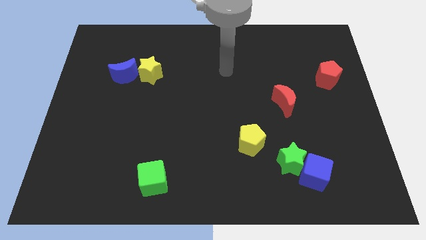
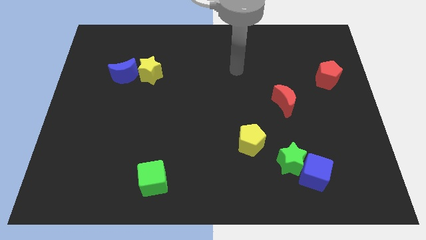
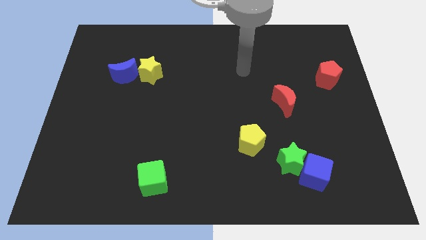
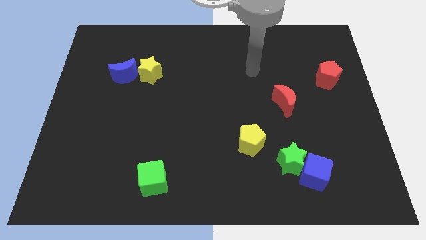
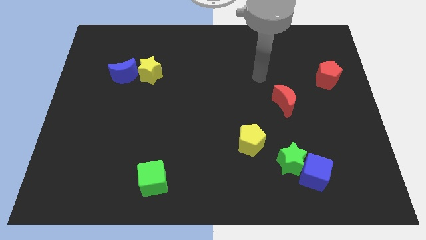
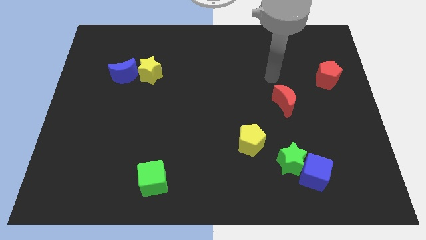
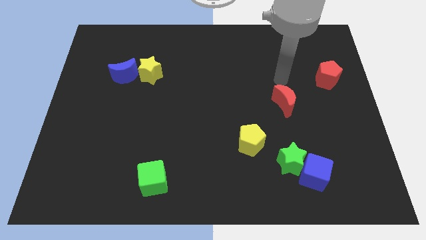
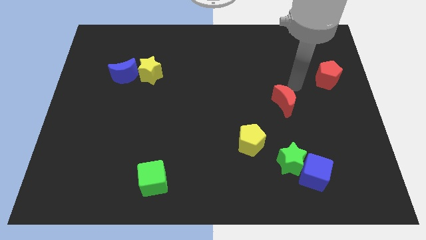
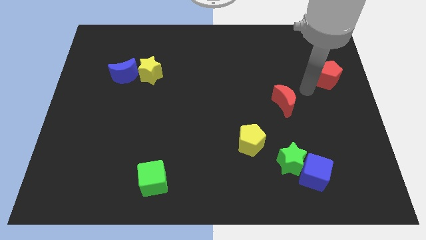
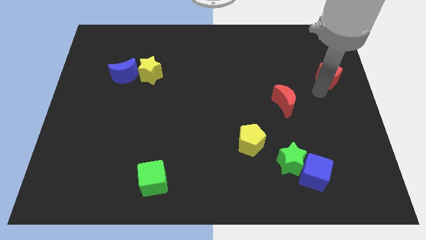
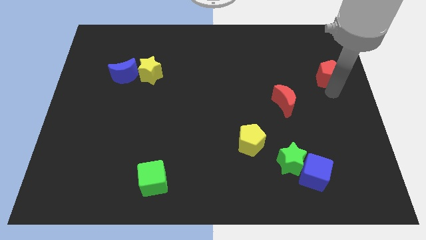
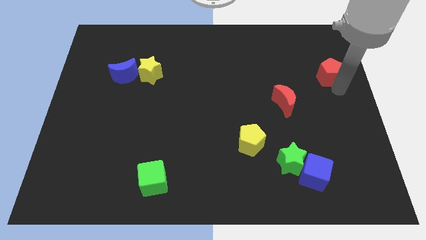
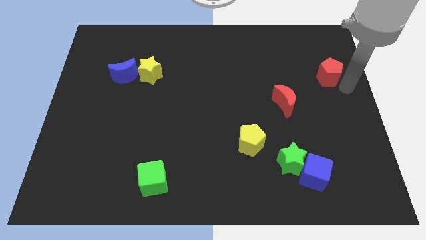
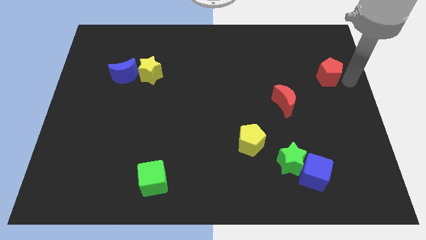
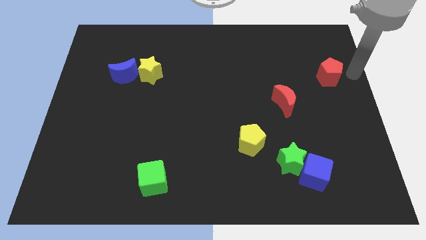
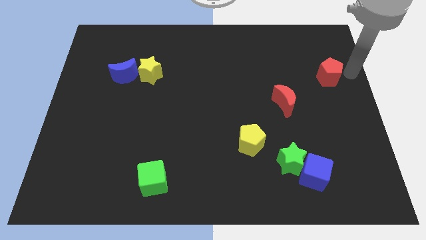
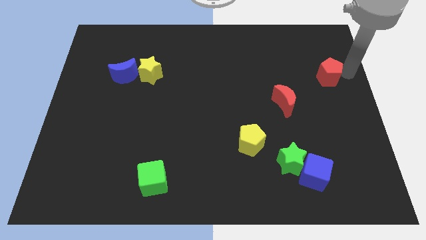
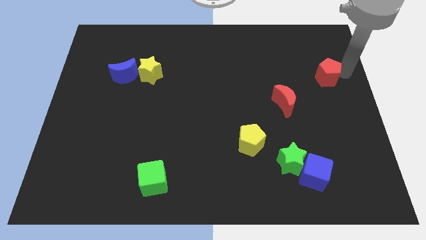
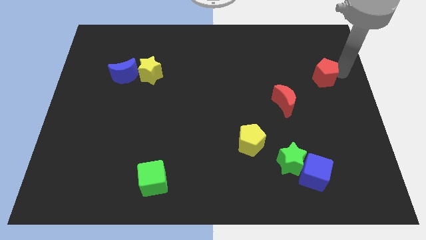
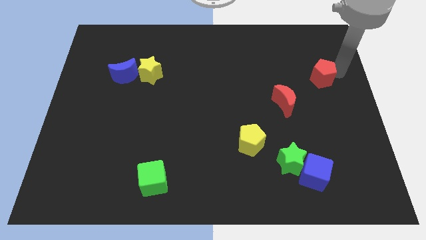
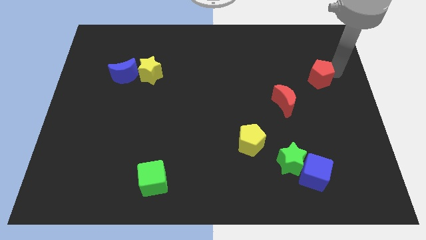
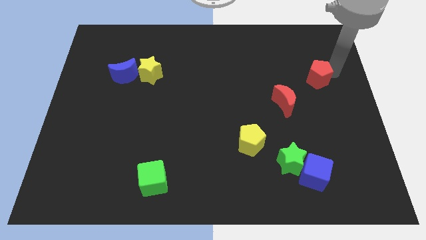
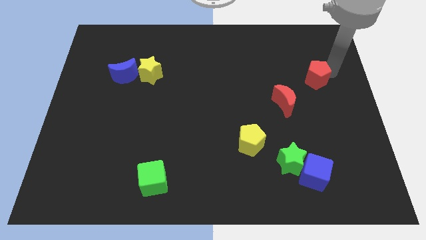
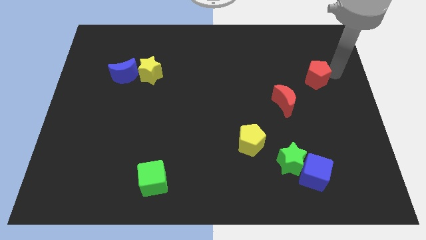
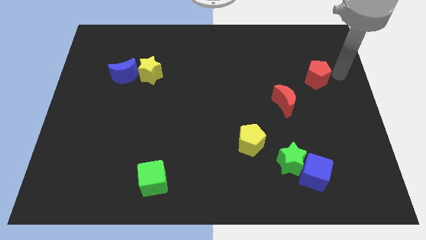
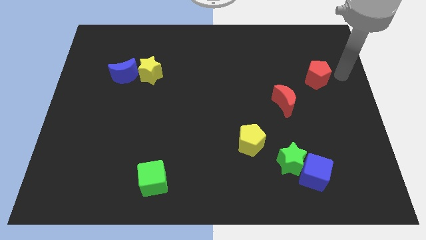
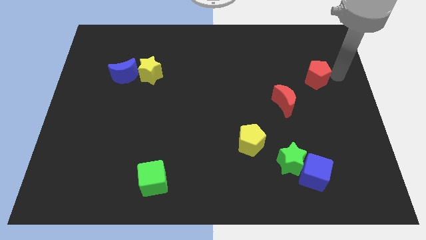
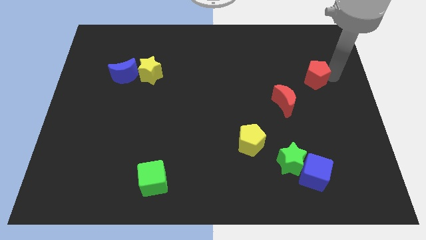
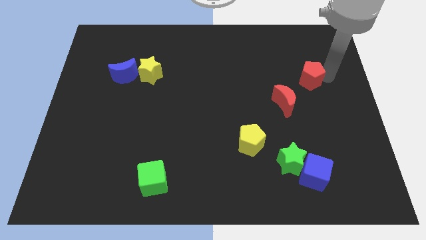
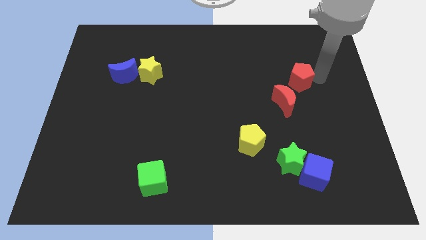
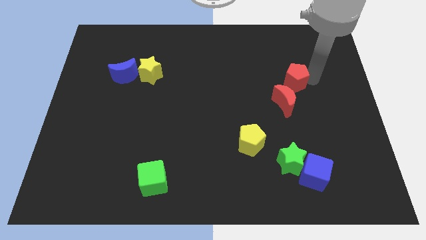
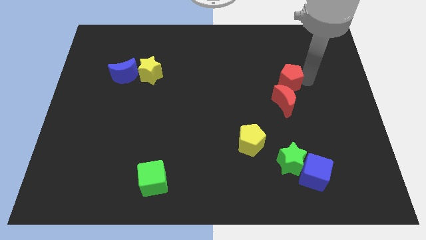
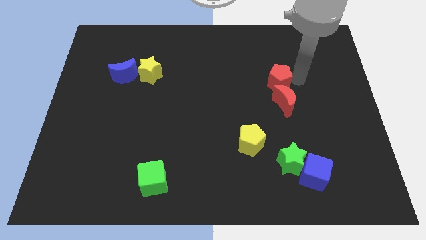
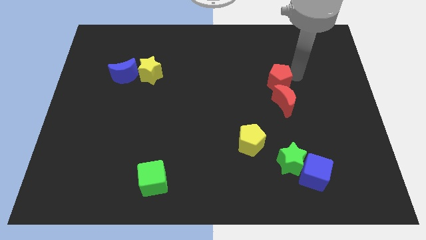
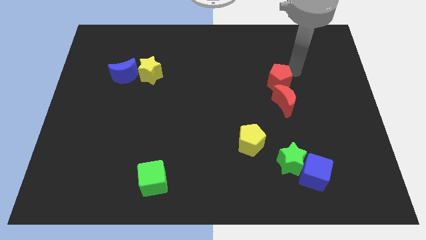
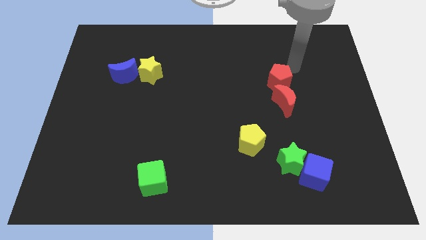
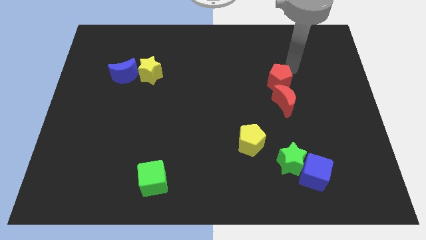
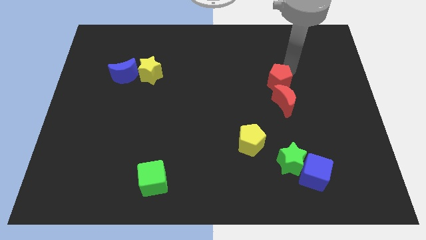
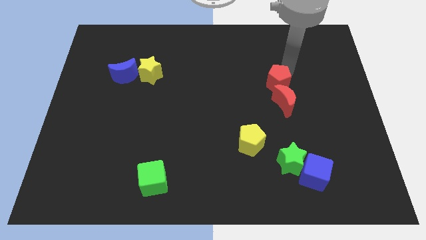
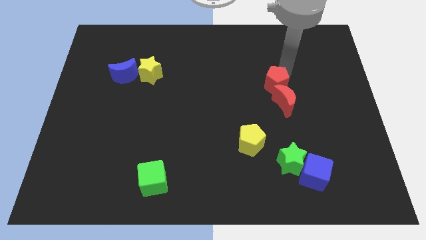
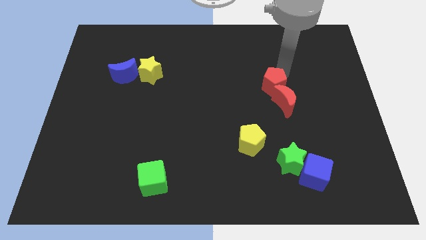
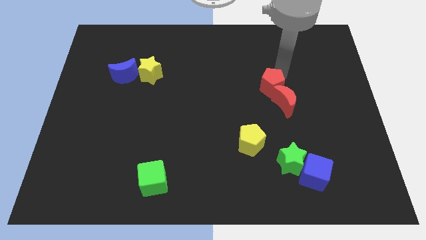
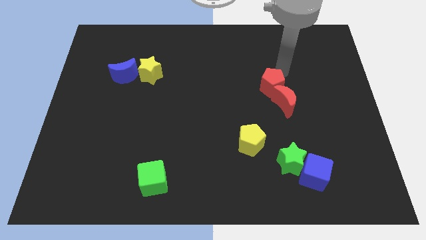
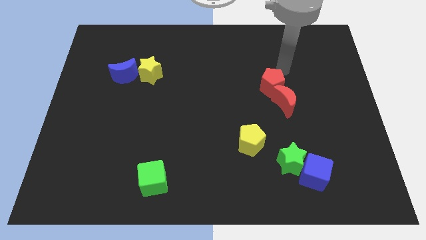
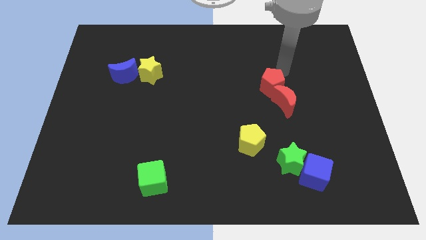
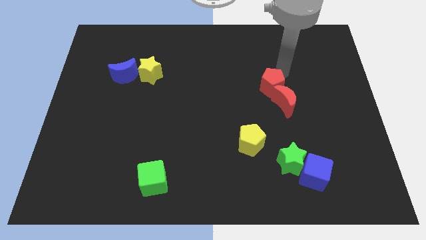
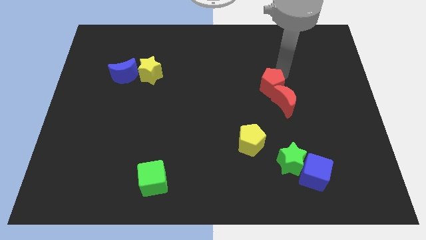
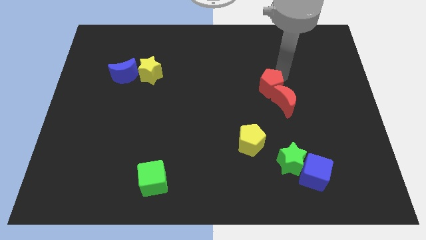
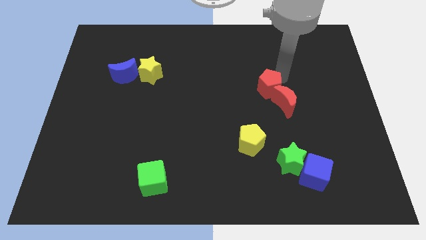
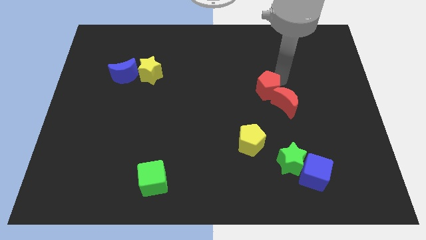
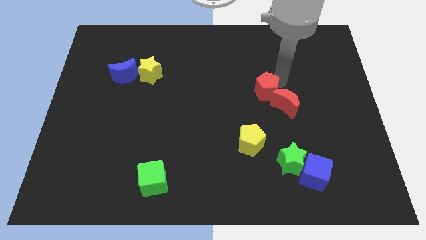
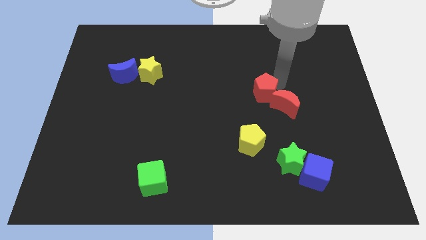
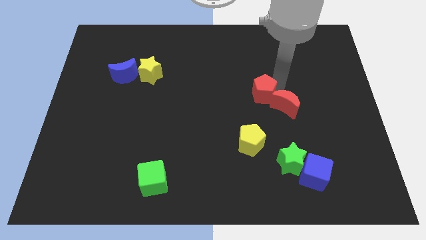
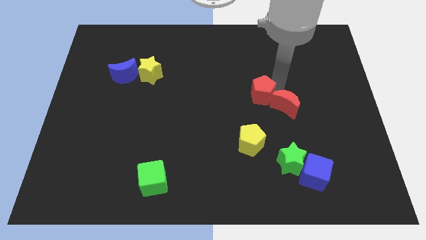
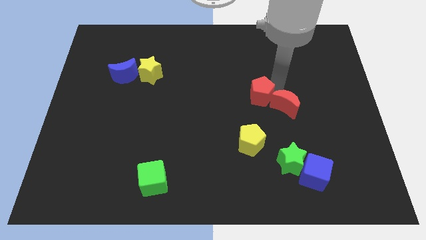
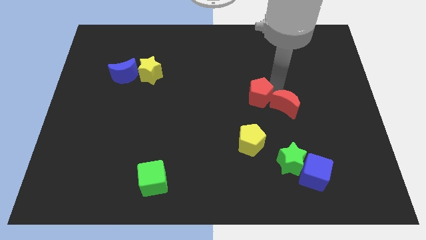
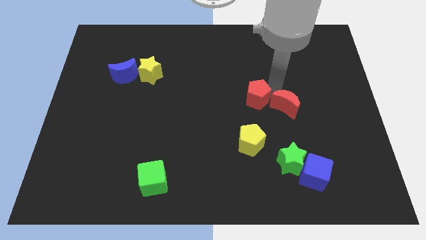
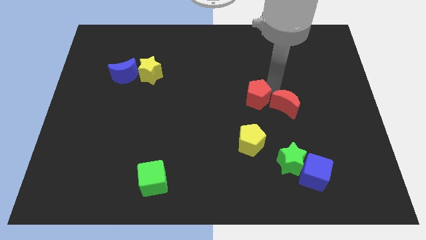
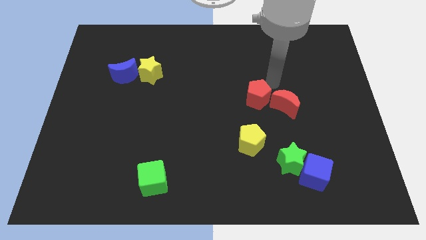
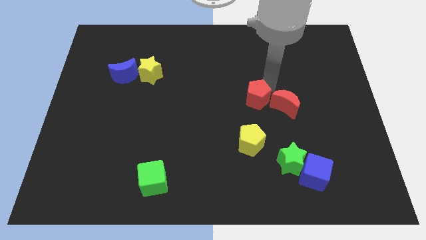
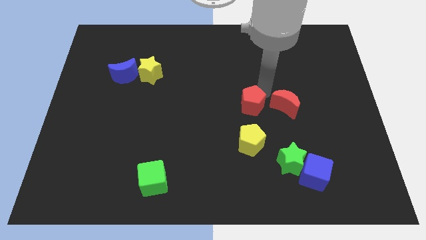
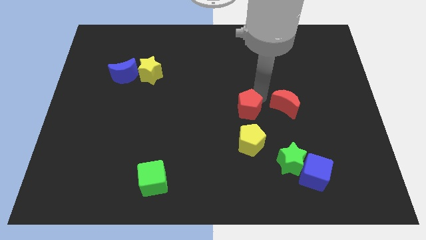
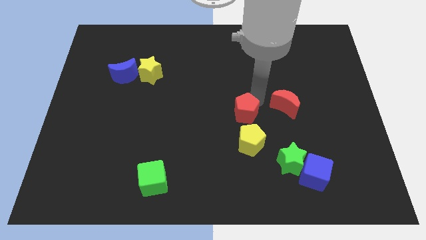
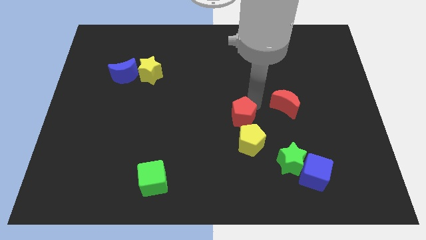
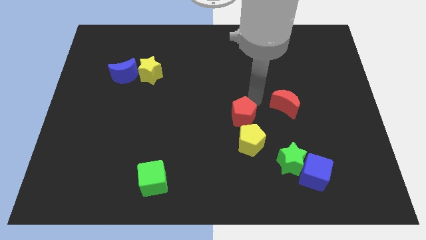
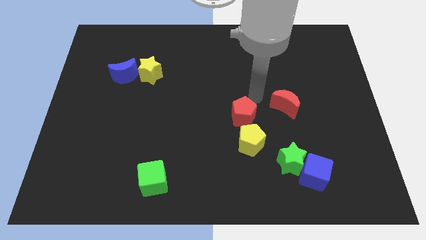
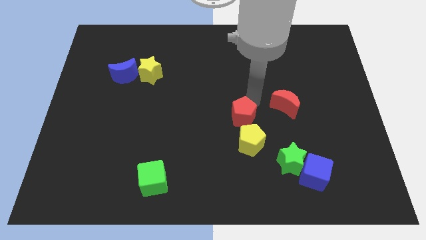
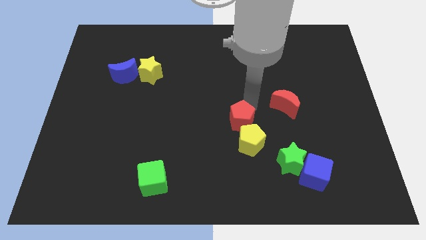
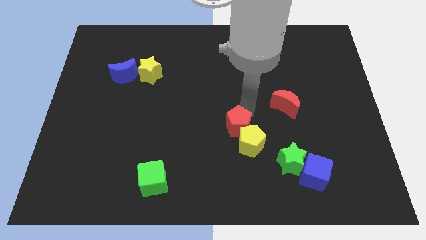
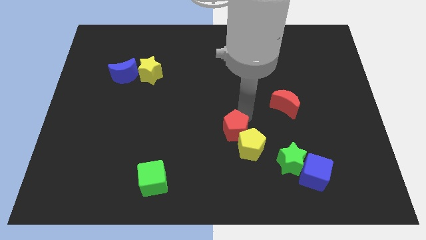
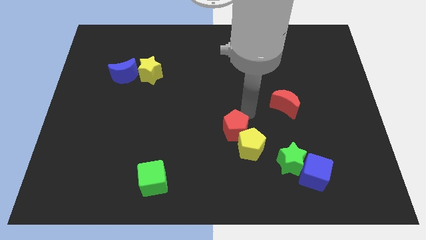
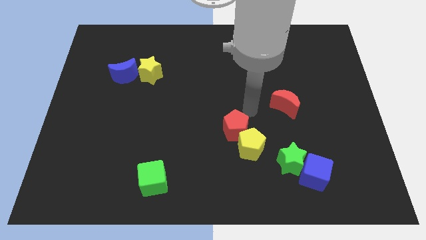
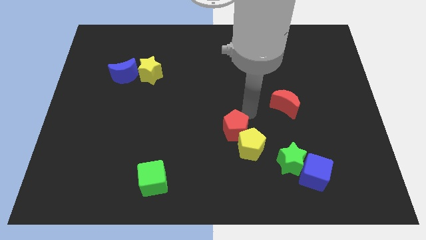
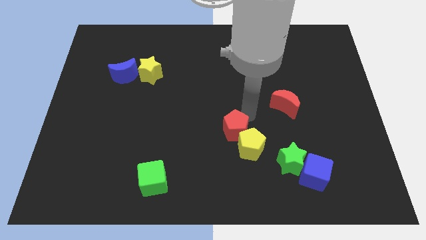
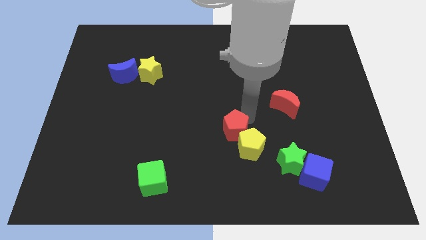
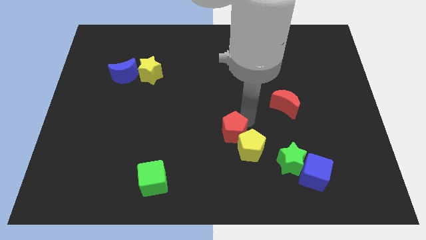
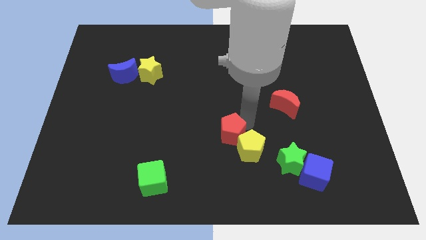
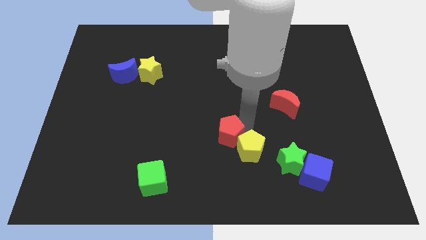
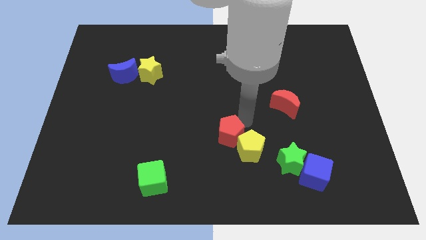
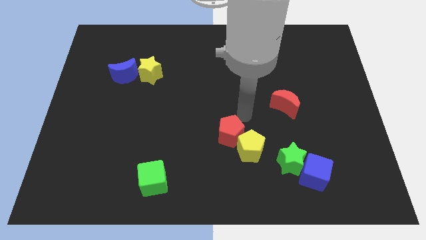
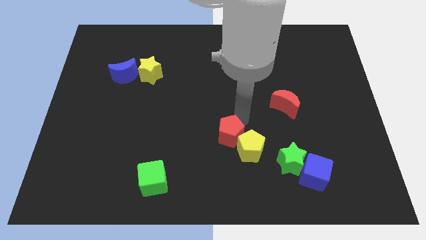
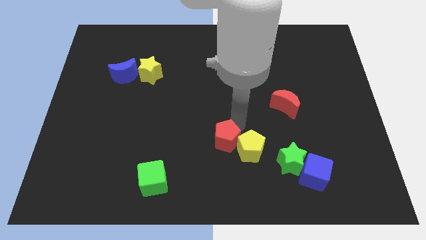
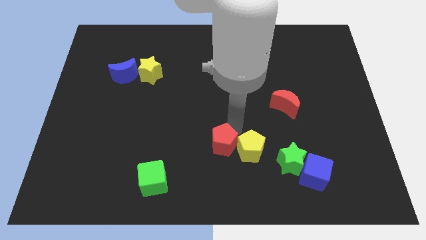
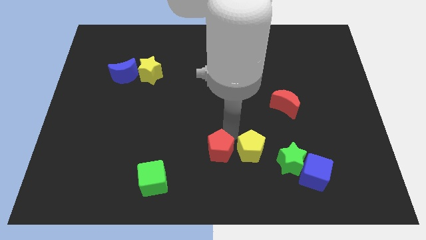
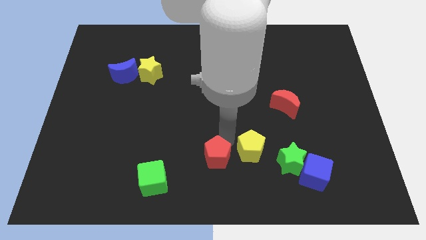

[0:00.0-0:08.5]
move the red pentagon to the bottom
